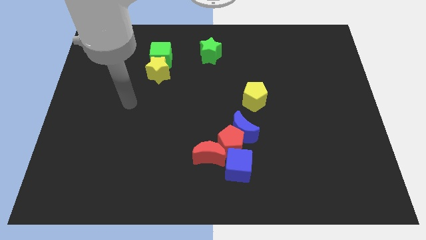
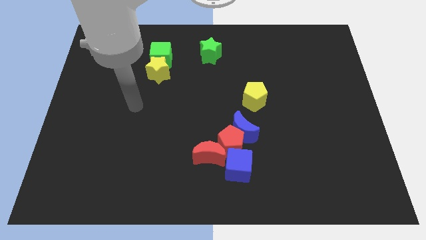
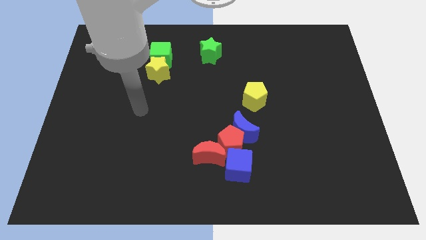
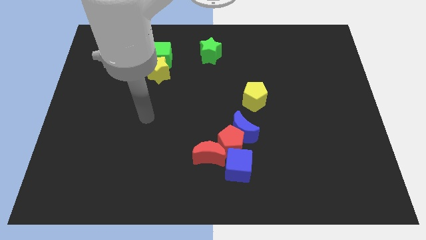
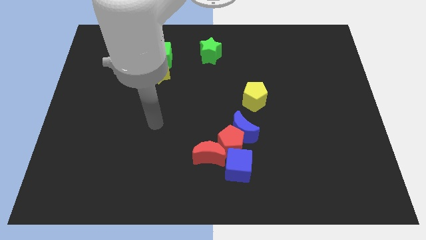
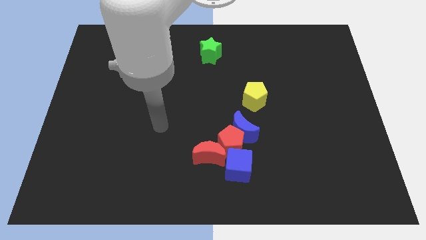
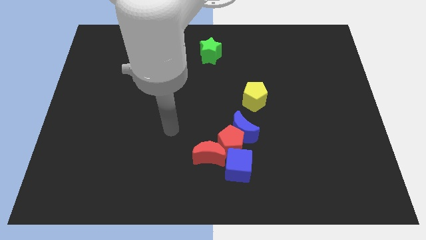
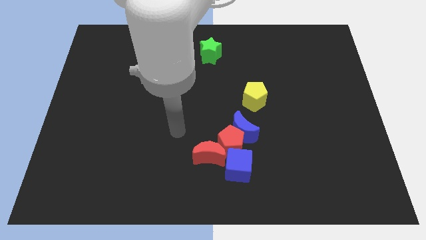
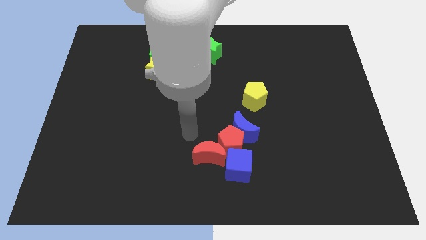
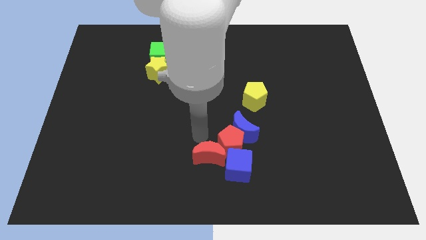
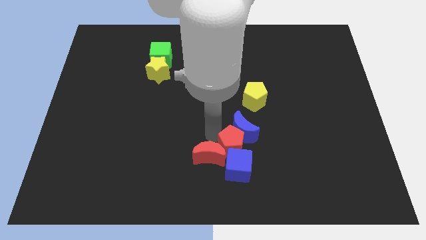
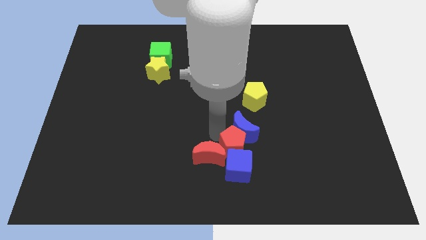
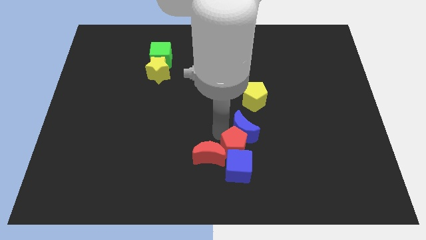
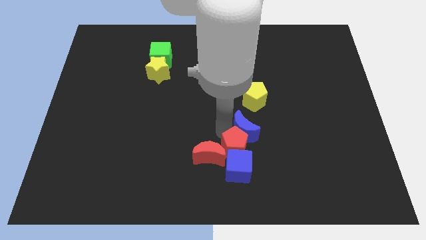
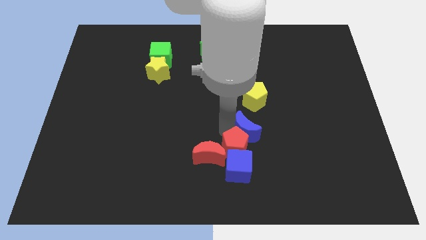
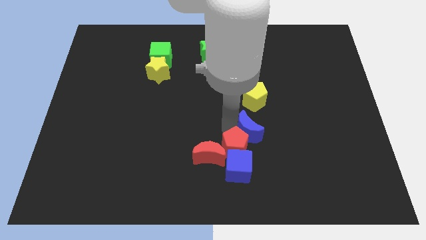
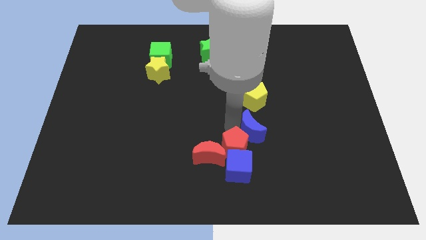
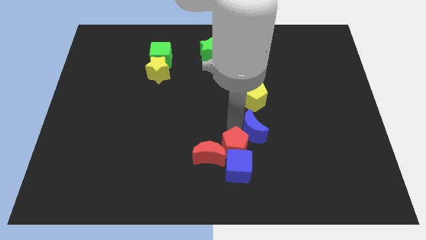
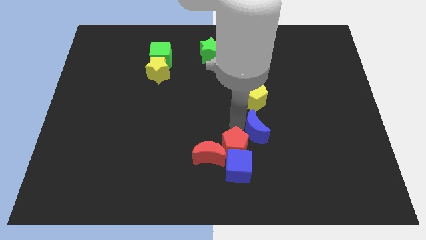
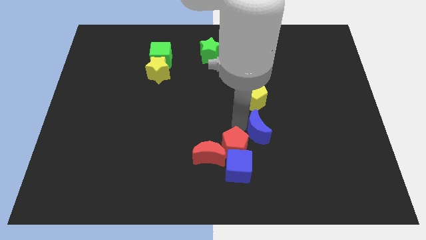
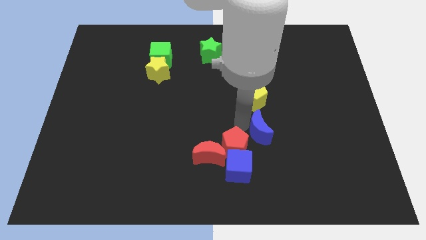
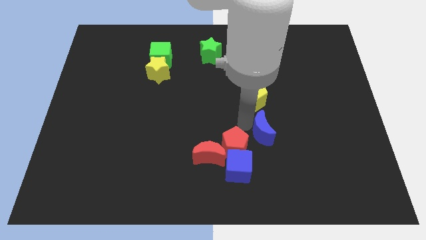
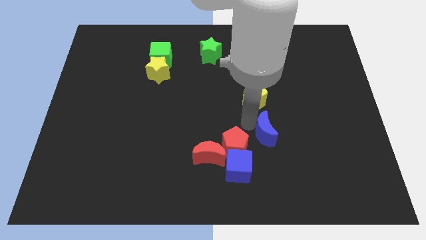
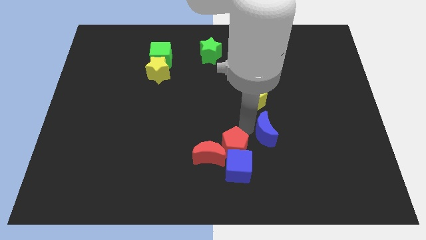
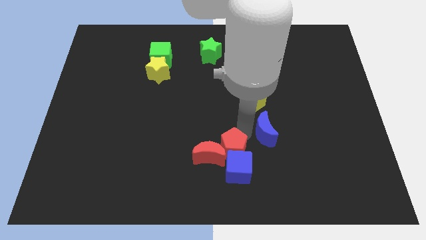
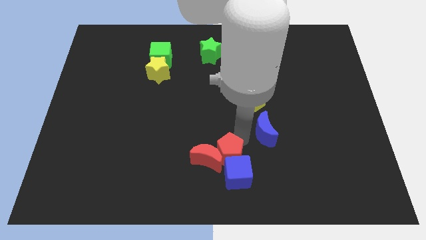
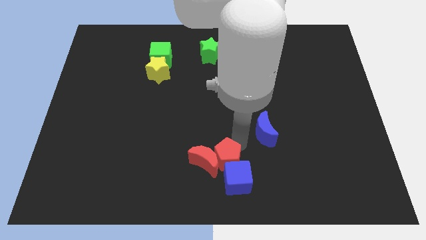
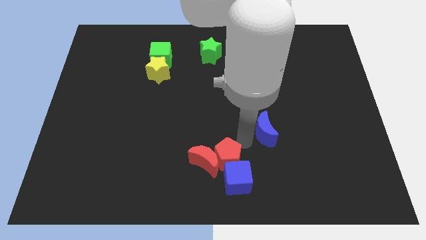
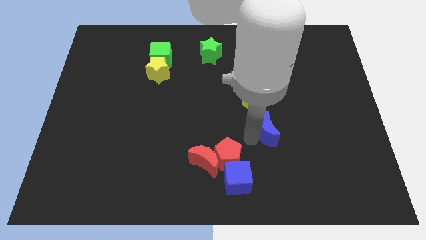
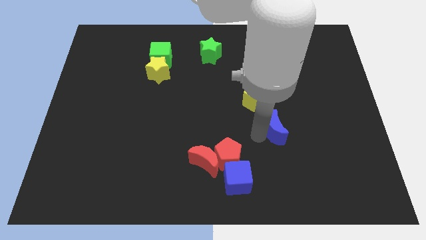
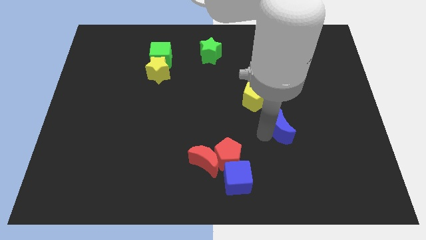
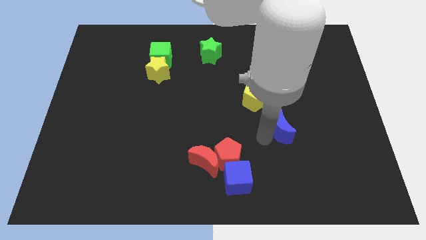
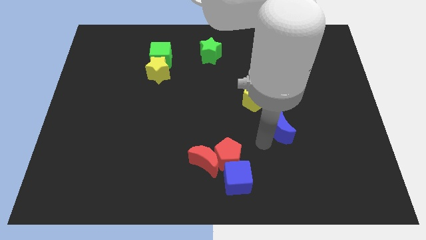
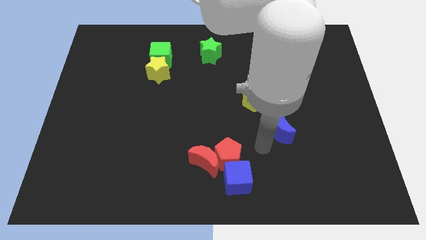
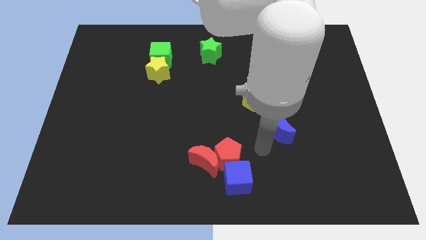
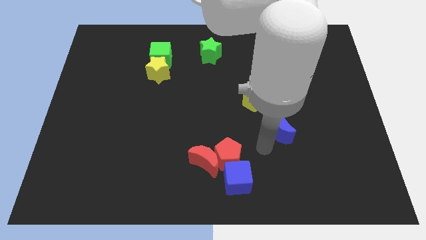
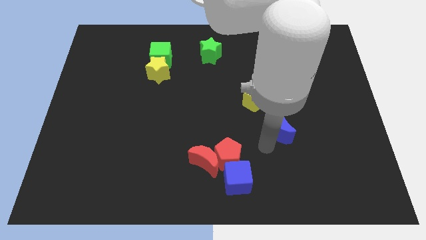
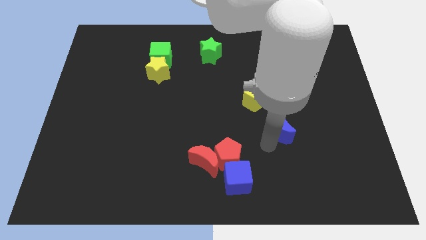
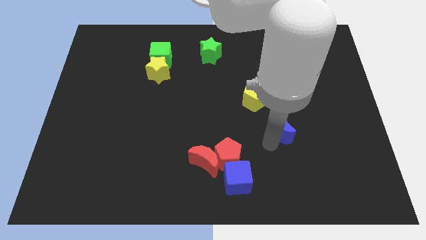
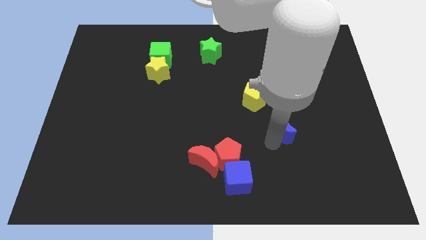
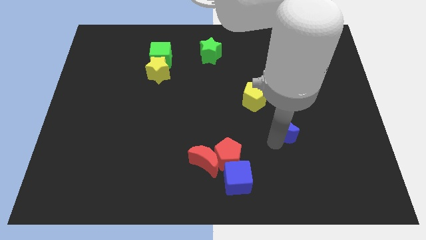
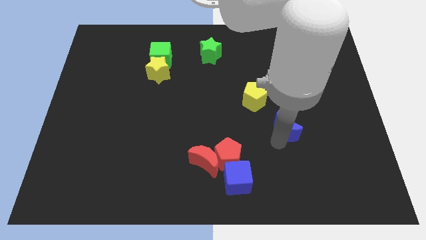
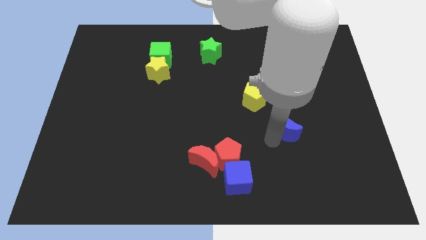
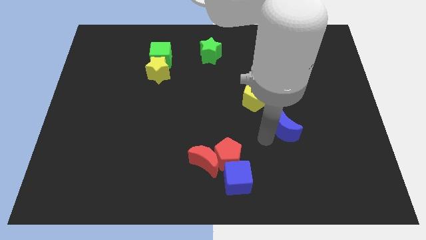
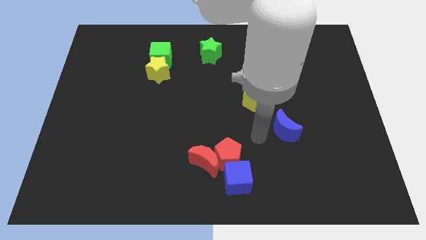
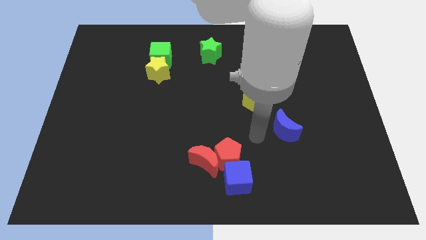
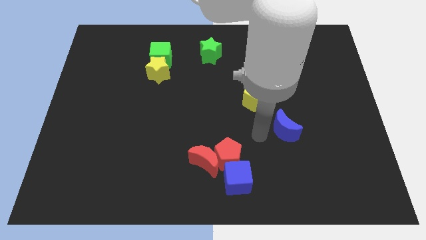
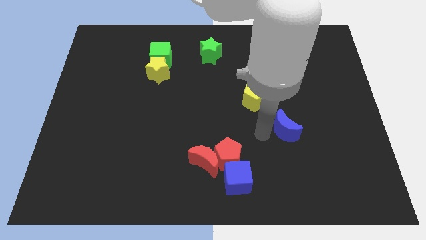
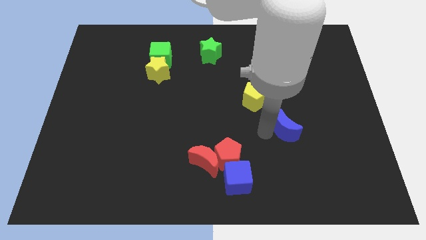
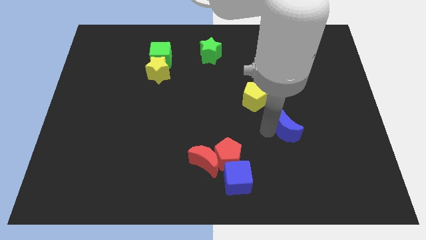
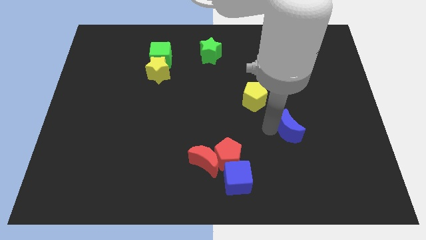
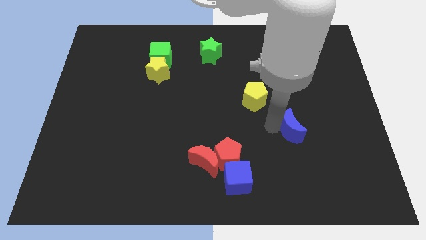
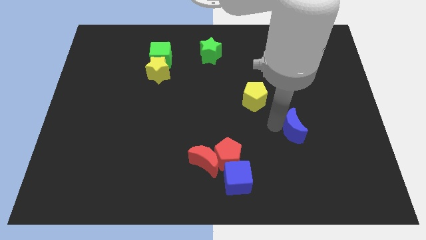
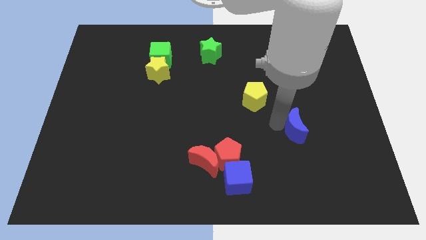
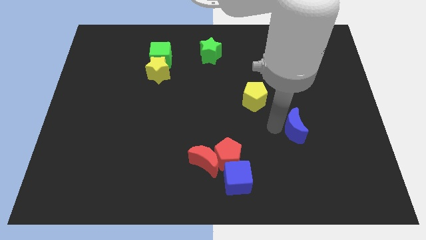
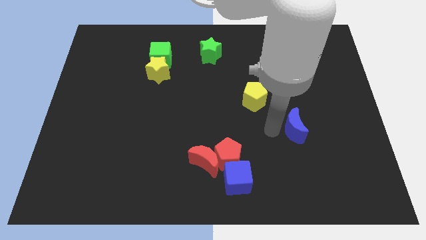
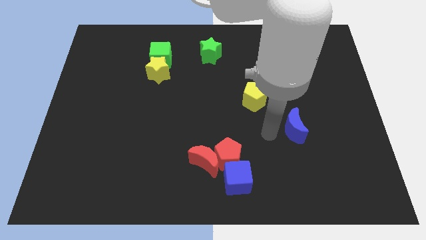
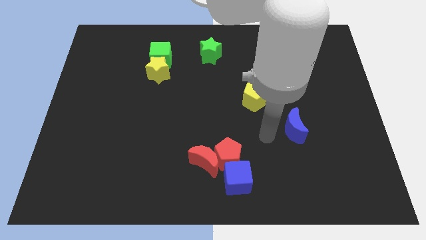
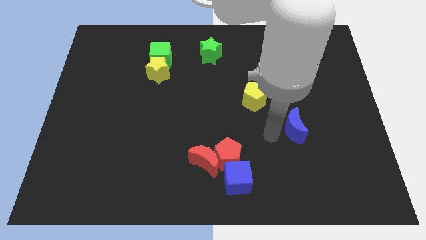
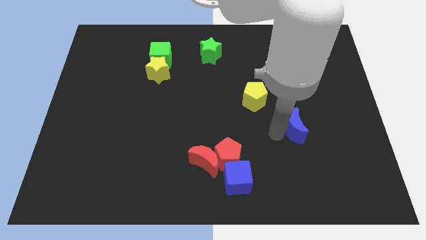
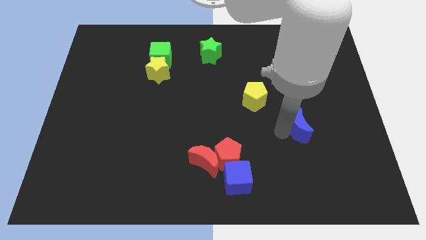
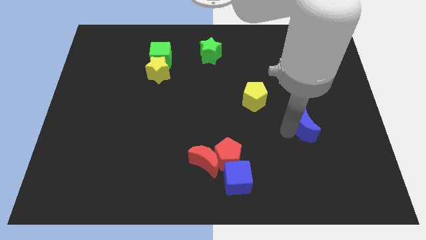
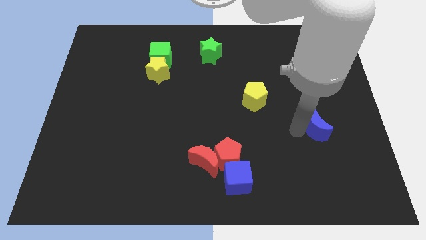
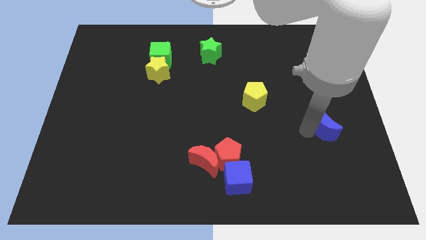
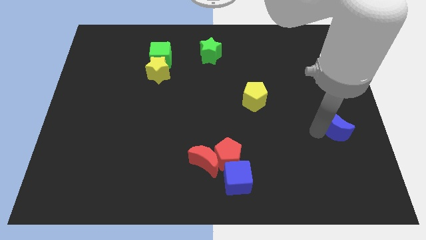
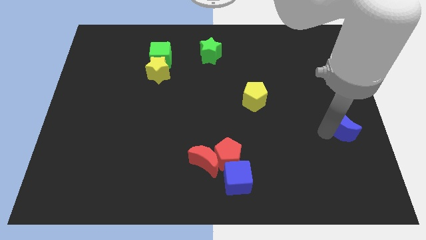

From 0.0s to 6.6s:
put the blue moon to the right side

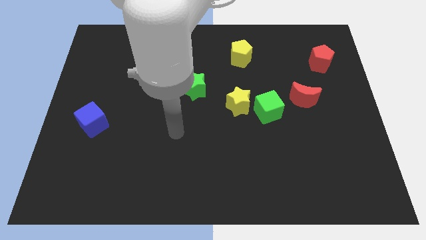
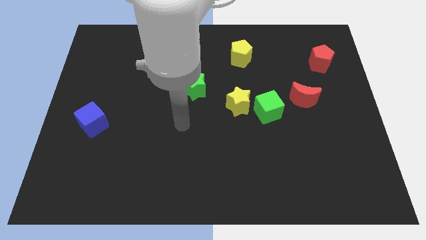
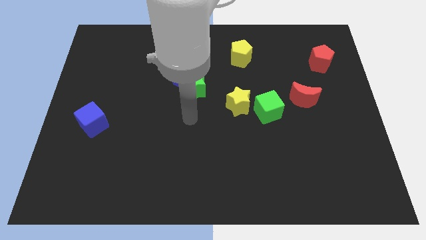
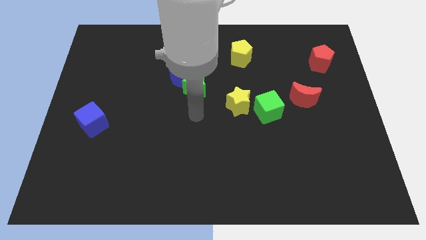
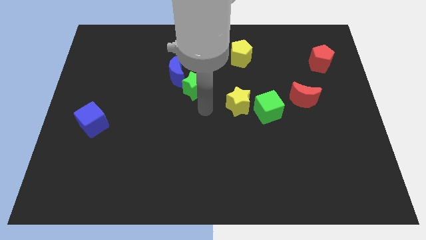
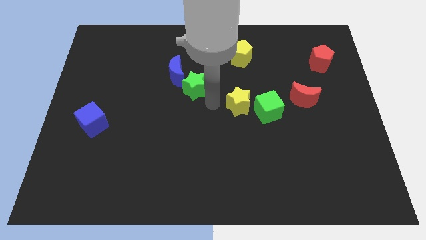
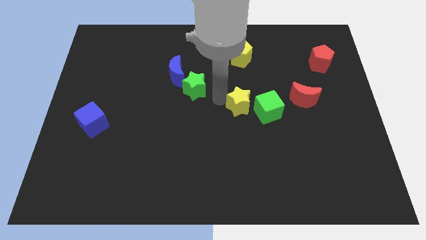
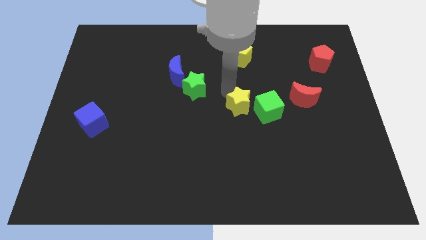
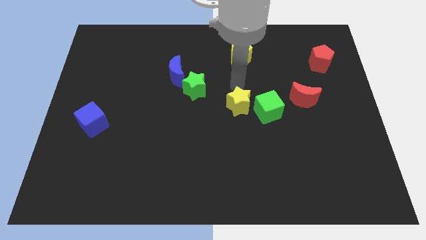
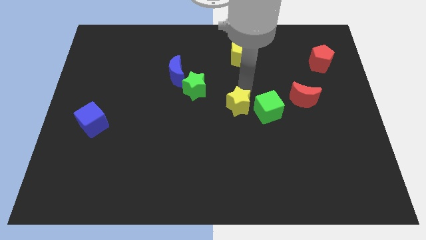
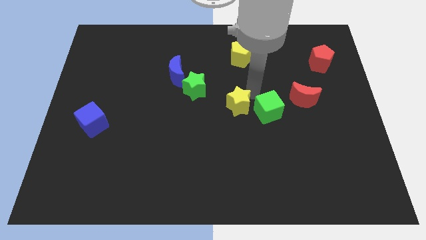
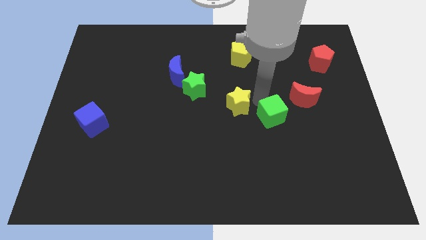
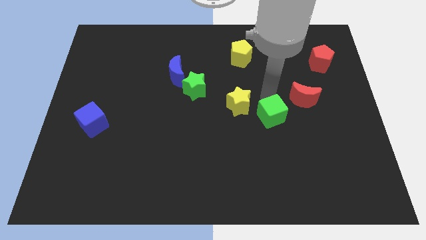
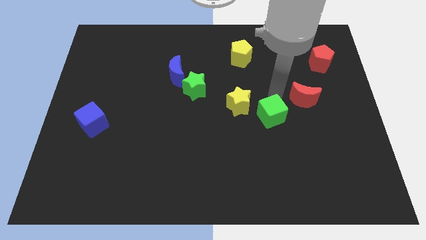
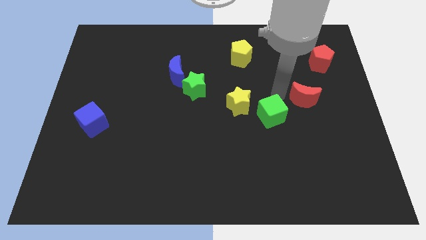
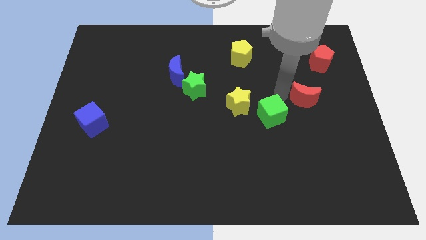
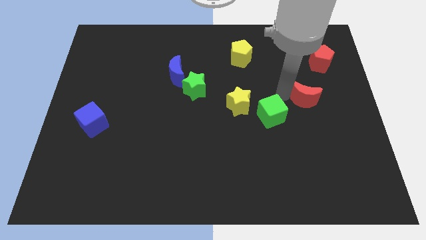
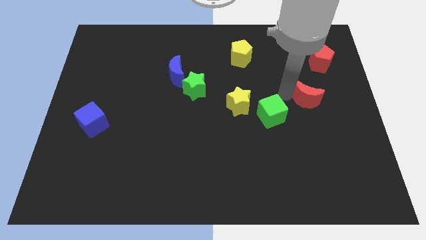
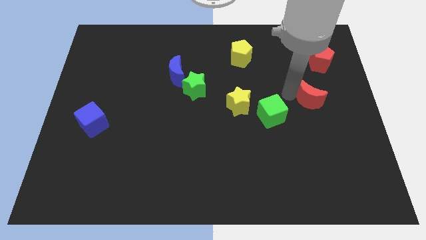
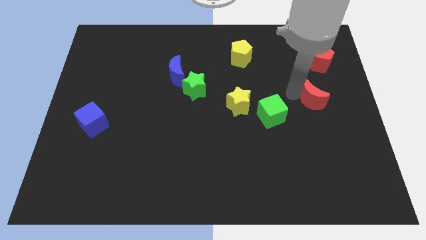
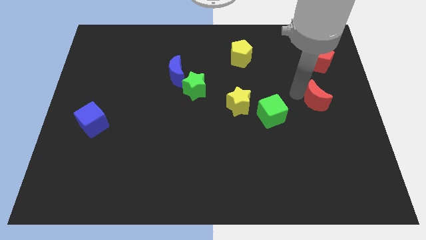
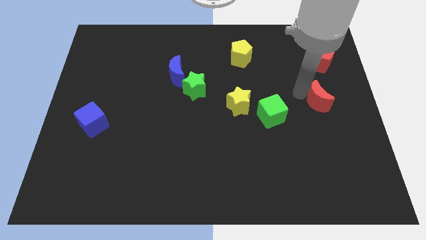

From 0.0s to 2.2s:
push the red moon to the center right
